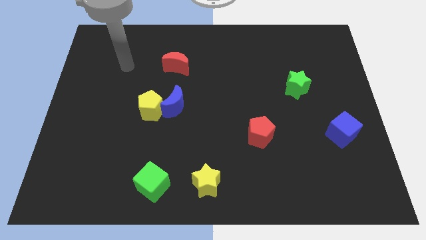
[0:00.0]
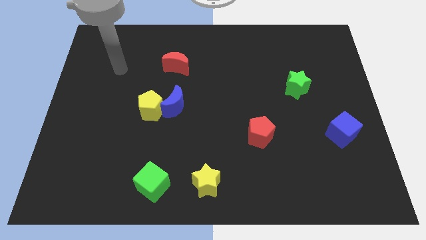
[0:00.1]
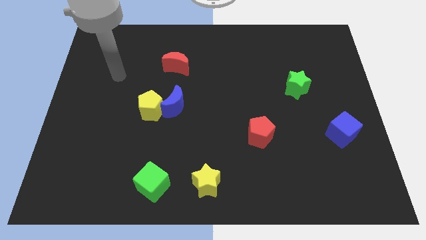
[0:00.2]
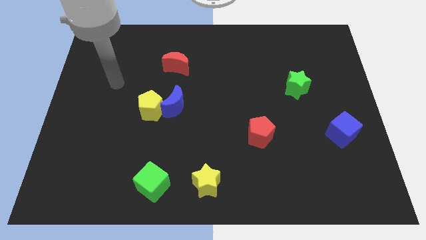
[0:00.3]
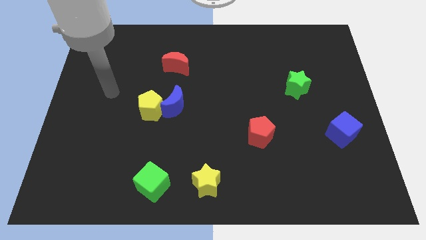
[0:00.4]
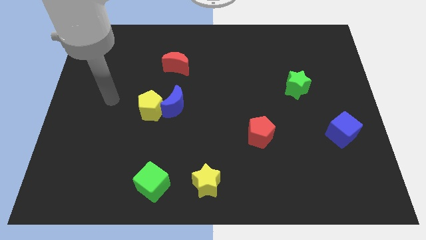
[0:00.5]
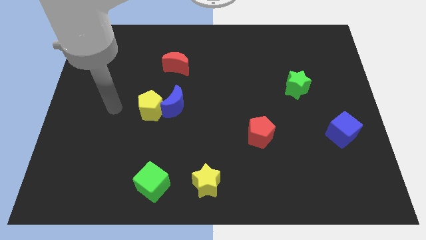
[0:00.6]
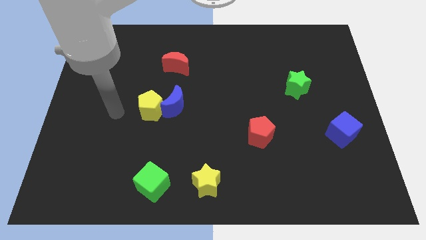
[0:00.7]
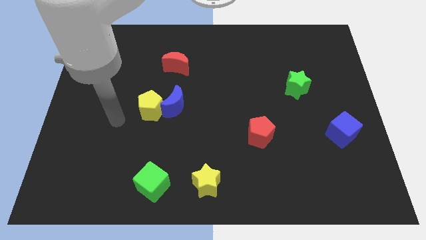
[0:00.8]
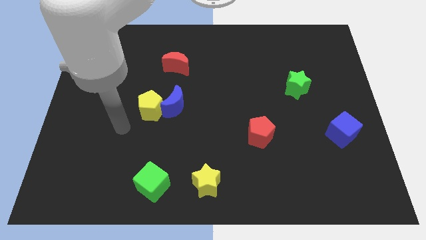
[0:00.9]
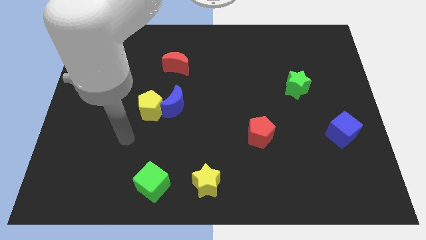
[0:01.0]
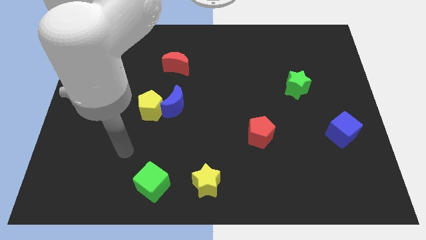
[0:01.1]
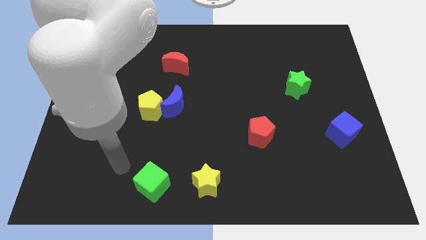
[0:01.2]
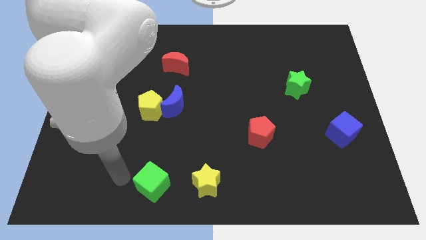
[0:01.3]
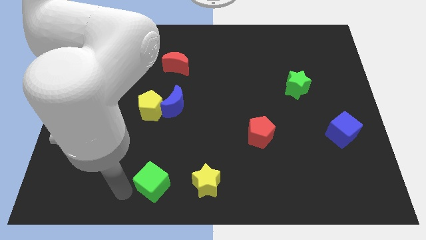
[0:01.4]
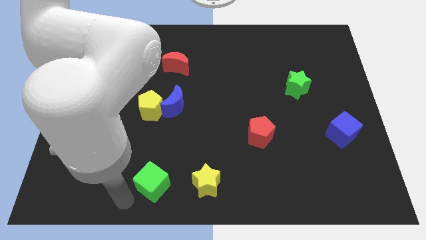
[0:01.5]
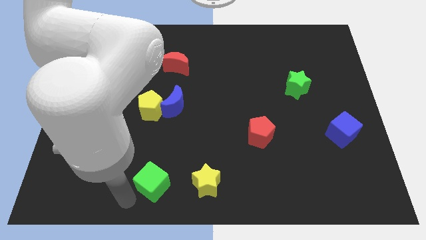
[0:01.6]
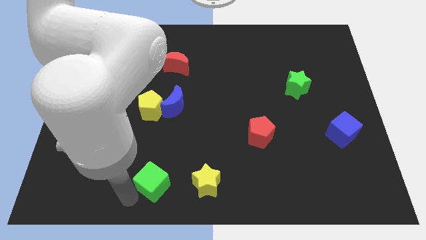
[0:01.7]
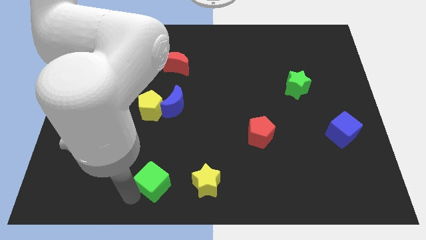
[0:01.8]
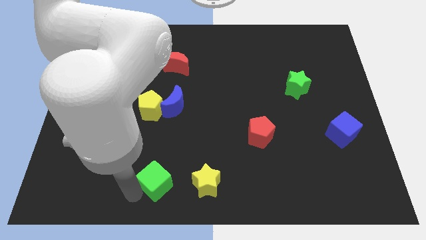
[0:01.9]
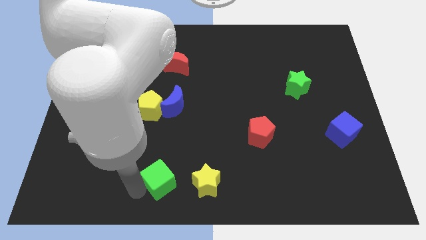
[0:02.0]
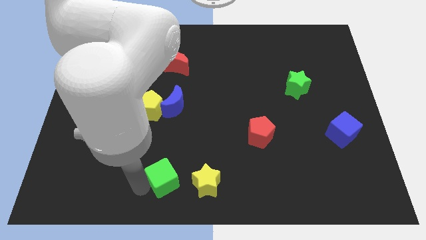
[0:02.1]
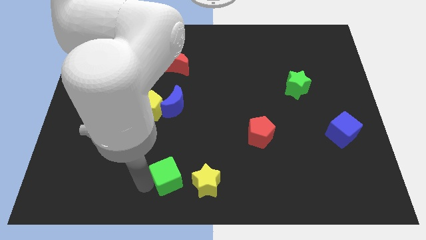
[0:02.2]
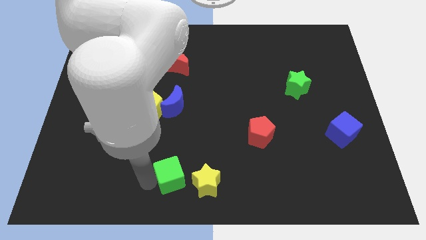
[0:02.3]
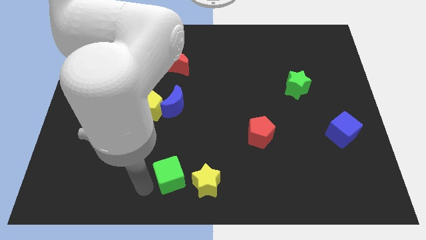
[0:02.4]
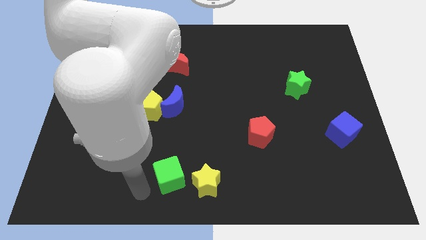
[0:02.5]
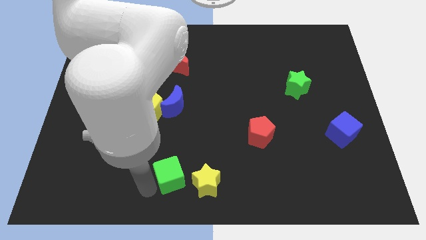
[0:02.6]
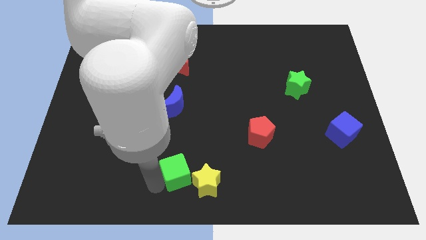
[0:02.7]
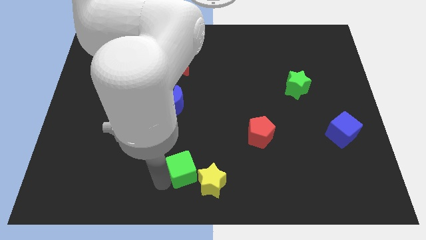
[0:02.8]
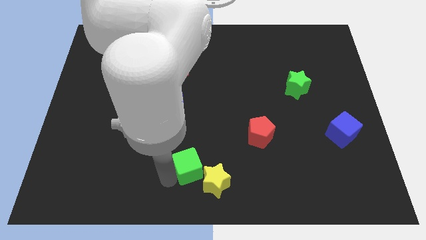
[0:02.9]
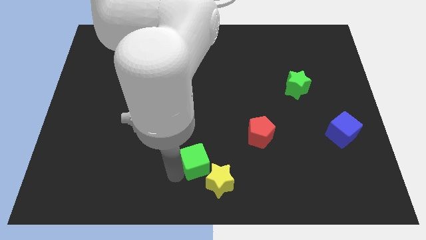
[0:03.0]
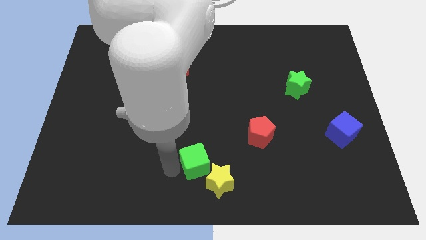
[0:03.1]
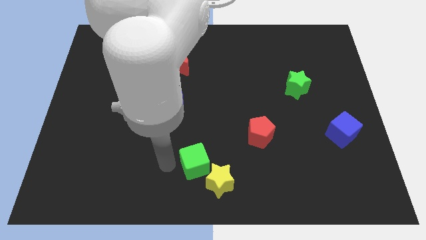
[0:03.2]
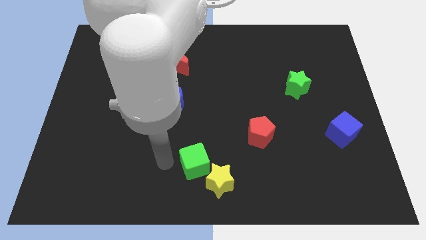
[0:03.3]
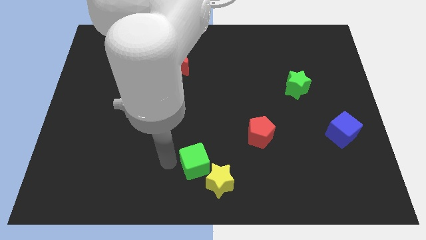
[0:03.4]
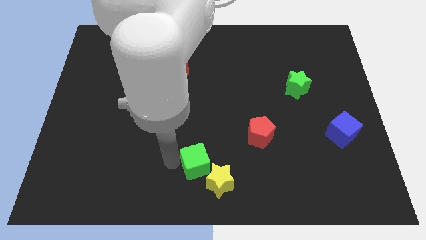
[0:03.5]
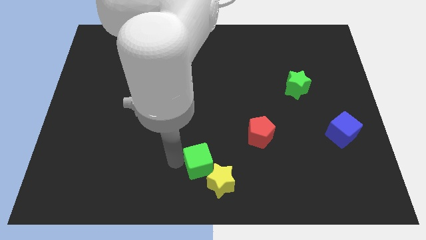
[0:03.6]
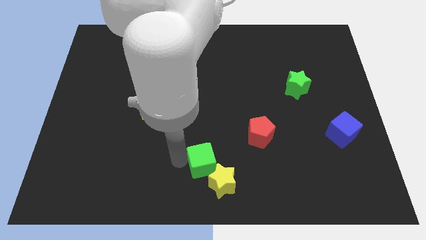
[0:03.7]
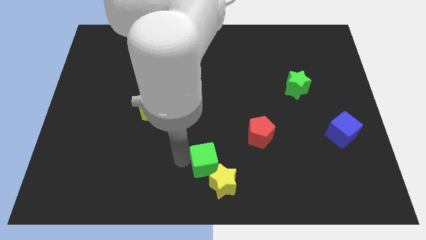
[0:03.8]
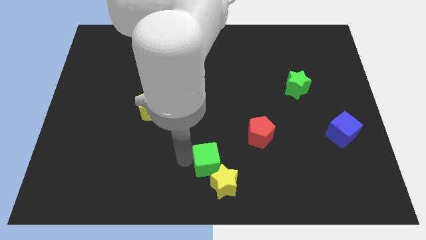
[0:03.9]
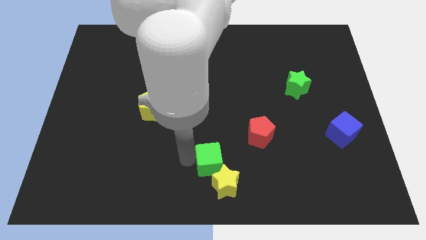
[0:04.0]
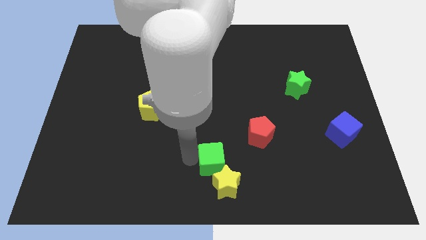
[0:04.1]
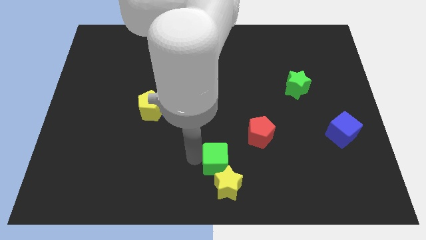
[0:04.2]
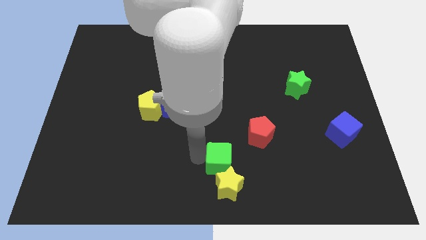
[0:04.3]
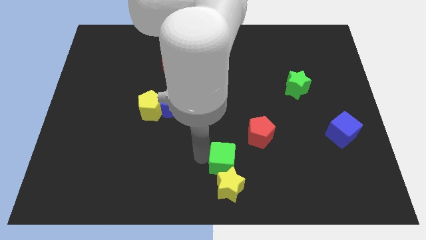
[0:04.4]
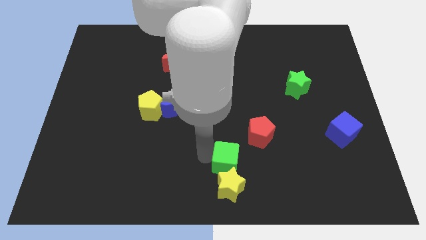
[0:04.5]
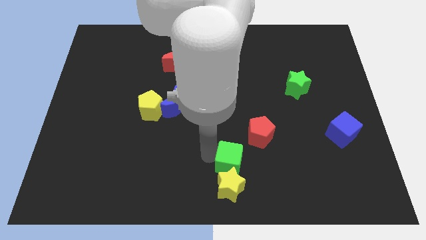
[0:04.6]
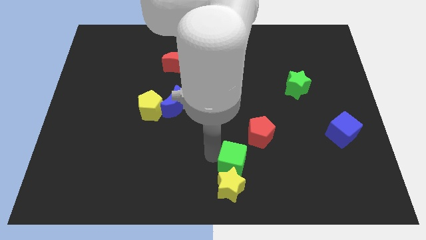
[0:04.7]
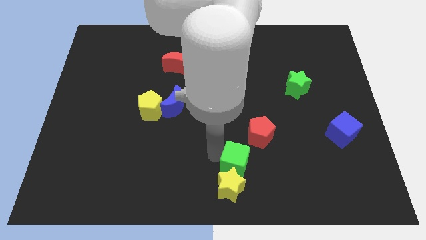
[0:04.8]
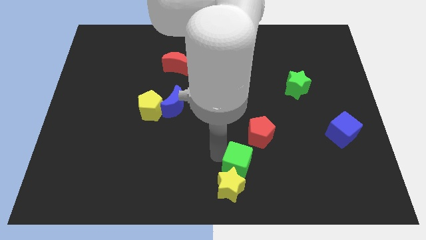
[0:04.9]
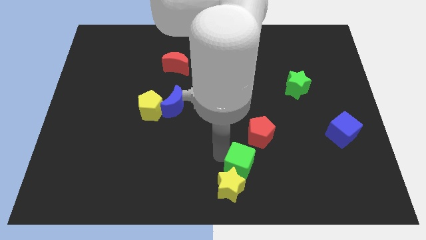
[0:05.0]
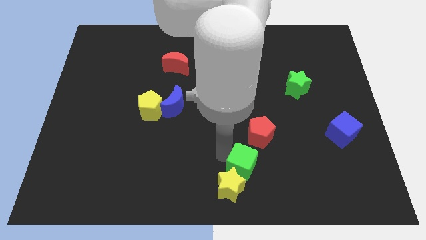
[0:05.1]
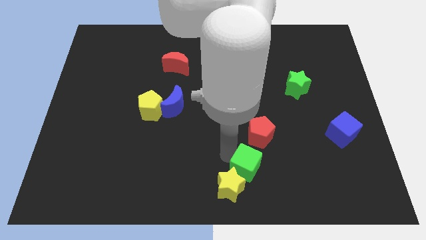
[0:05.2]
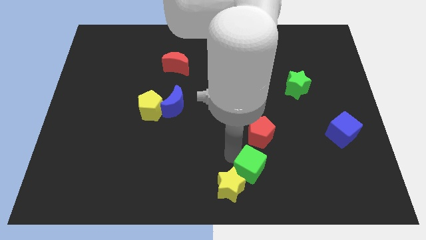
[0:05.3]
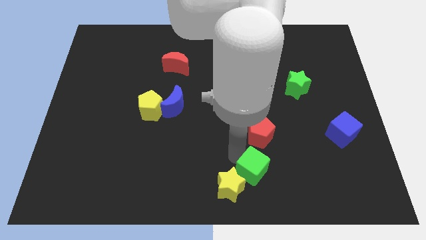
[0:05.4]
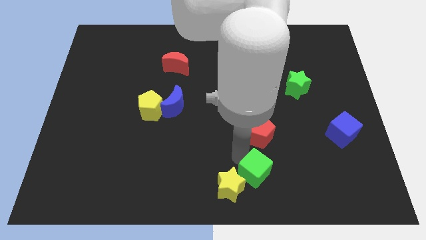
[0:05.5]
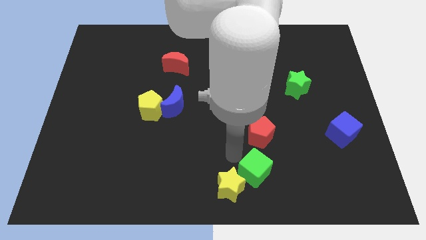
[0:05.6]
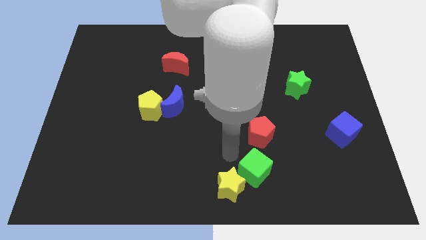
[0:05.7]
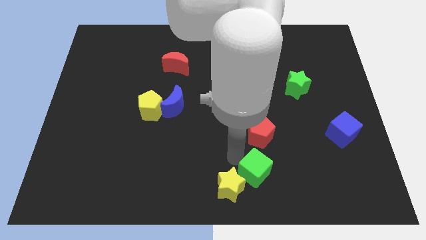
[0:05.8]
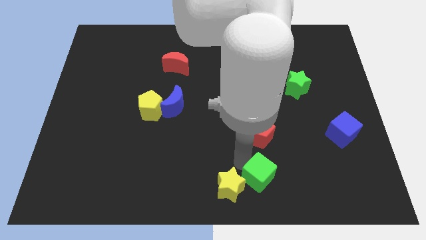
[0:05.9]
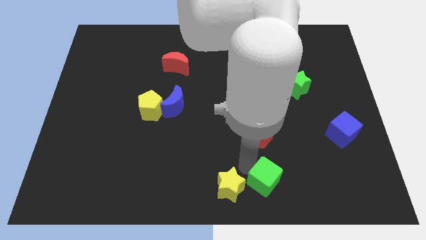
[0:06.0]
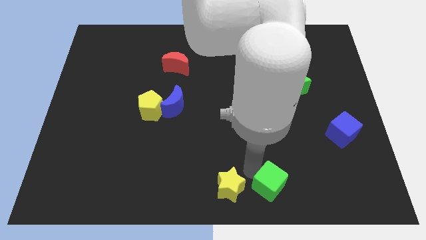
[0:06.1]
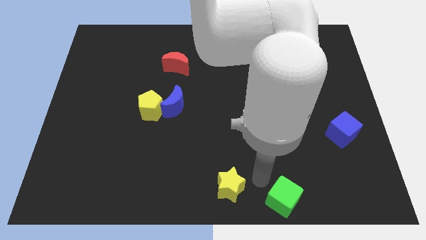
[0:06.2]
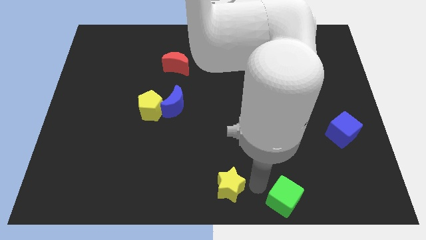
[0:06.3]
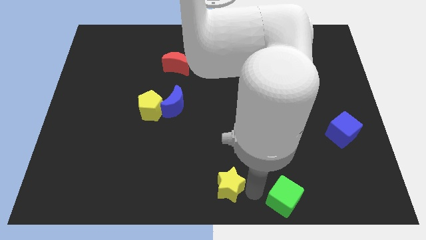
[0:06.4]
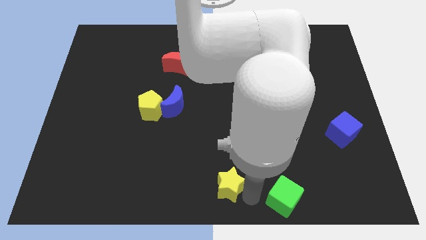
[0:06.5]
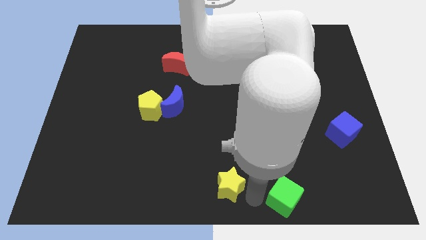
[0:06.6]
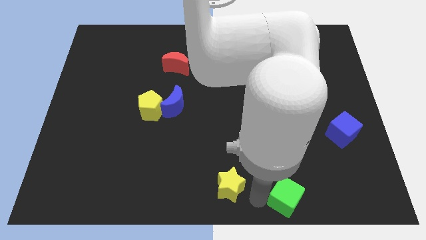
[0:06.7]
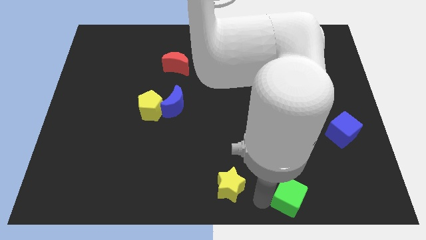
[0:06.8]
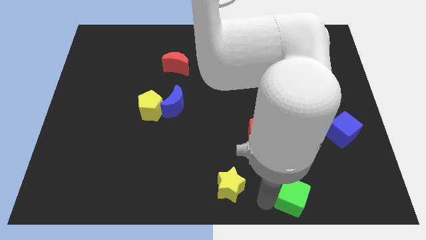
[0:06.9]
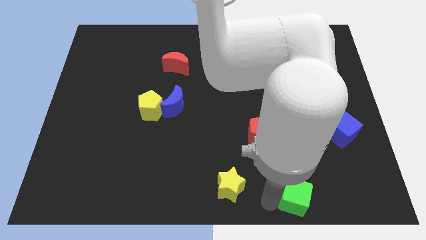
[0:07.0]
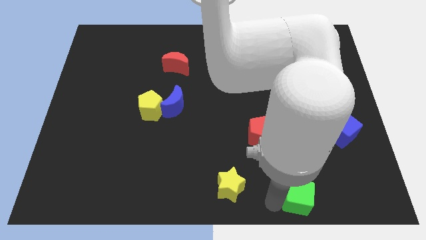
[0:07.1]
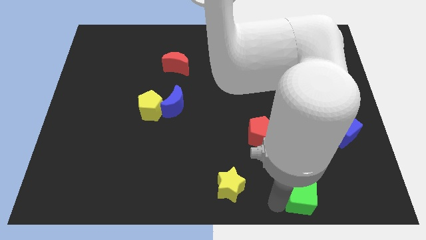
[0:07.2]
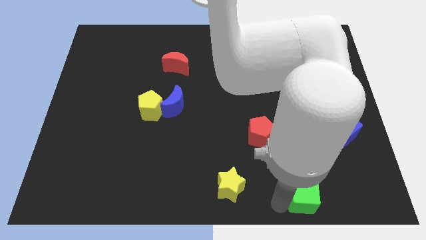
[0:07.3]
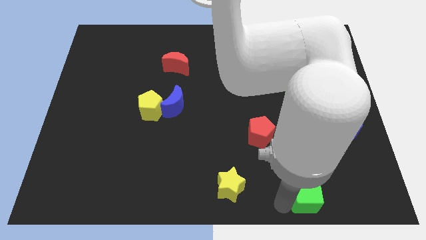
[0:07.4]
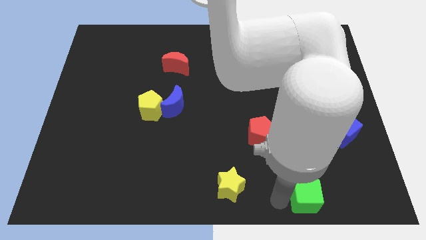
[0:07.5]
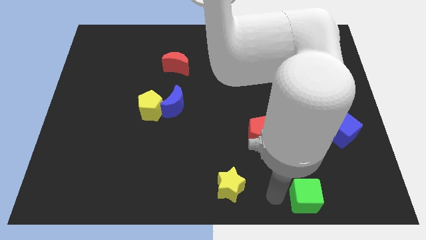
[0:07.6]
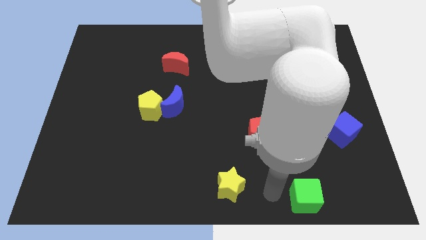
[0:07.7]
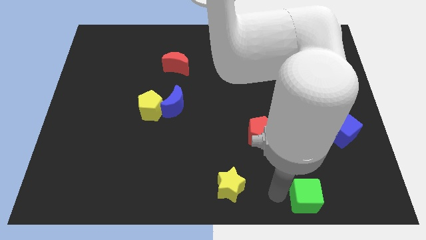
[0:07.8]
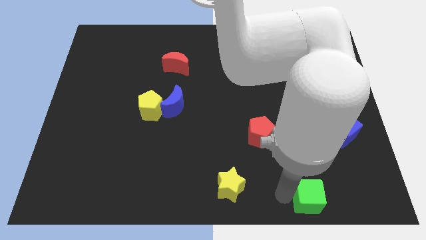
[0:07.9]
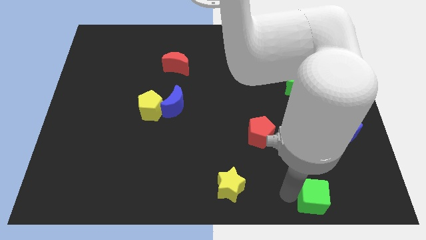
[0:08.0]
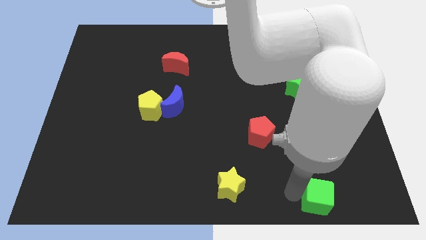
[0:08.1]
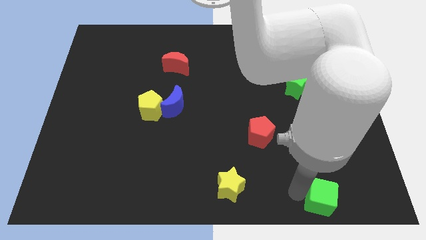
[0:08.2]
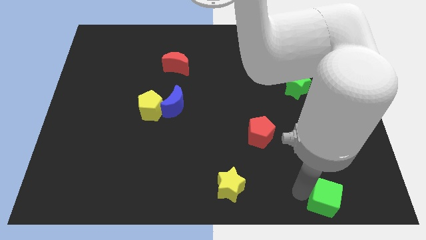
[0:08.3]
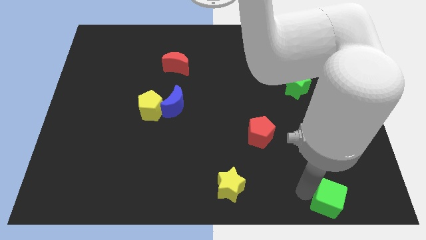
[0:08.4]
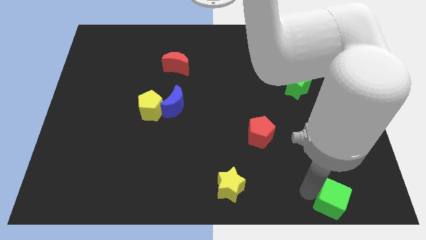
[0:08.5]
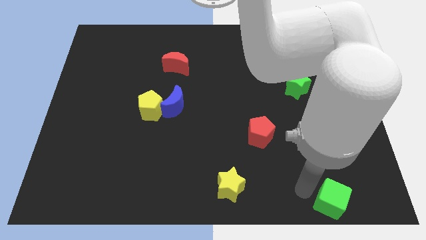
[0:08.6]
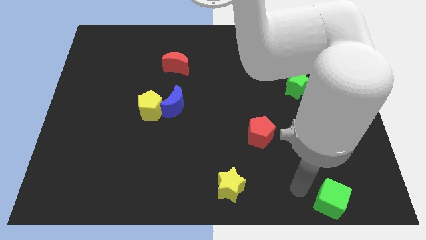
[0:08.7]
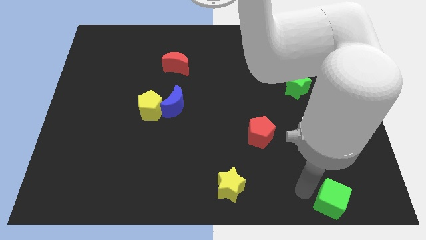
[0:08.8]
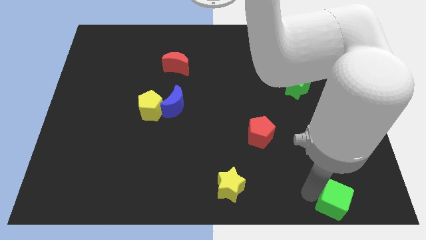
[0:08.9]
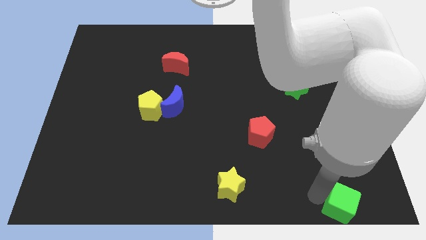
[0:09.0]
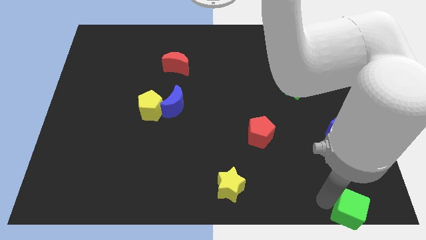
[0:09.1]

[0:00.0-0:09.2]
move the green cube to the bottom right corner
